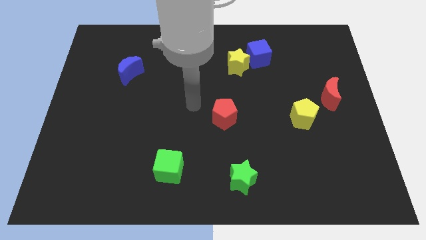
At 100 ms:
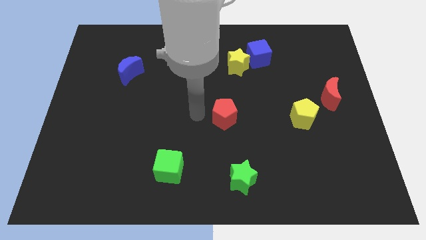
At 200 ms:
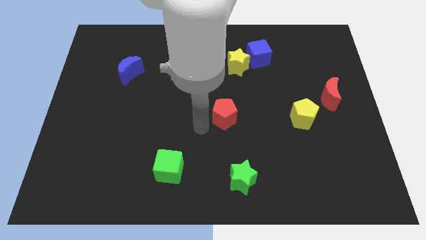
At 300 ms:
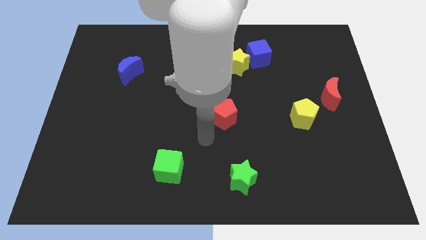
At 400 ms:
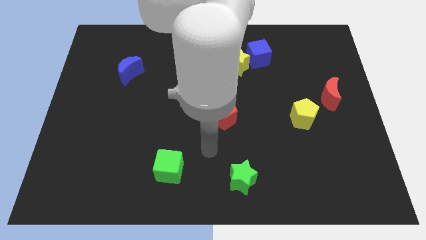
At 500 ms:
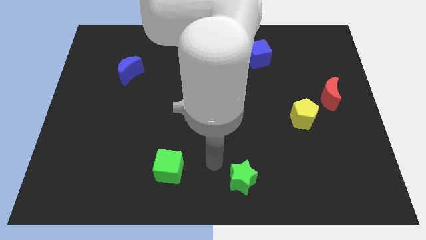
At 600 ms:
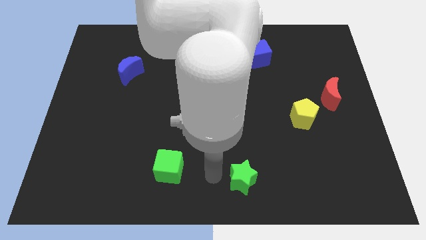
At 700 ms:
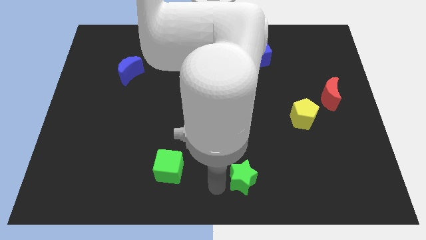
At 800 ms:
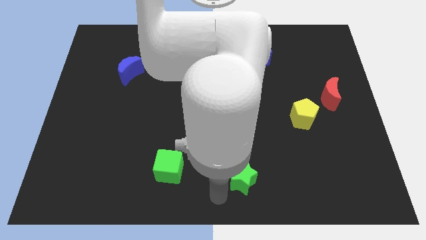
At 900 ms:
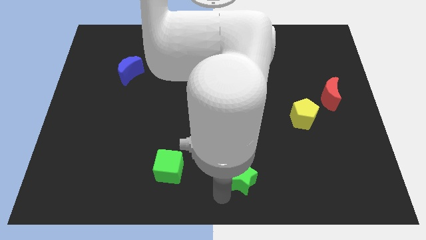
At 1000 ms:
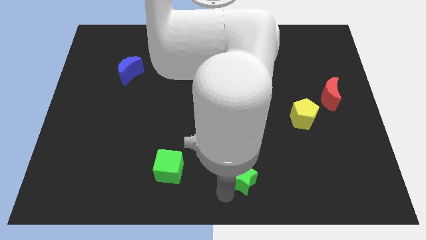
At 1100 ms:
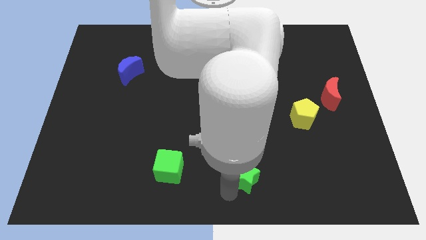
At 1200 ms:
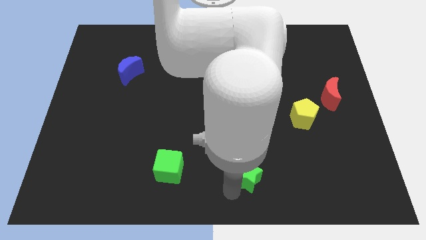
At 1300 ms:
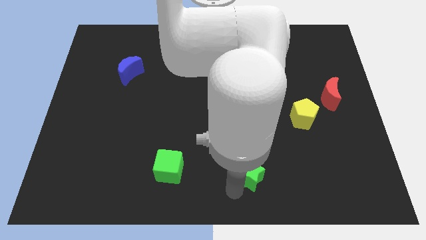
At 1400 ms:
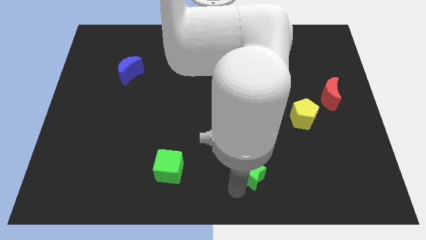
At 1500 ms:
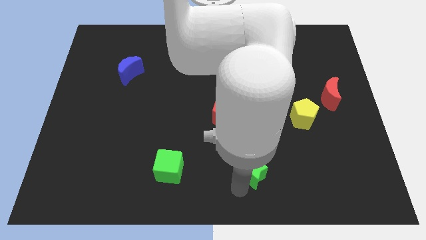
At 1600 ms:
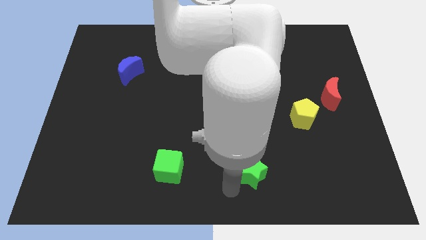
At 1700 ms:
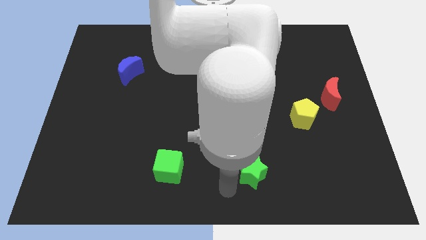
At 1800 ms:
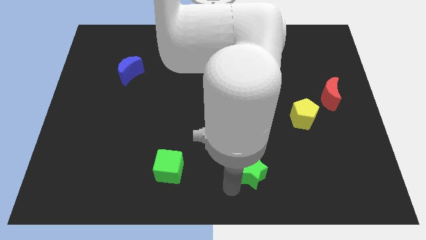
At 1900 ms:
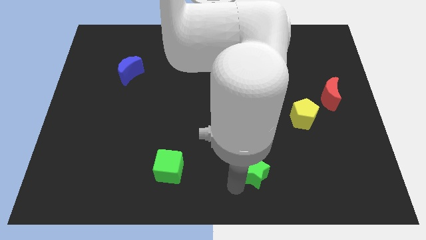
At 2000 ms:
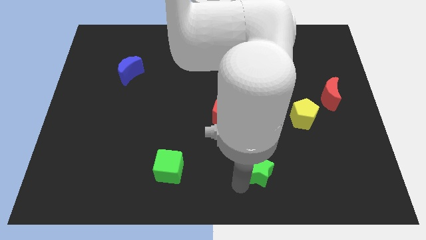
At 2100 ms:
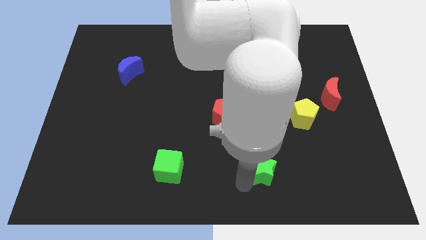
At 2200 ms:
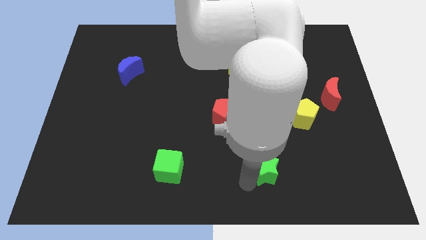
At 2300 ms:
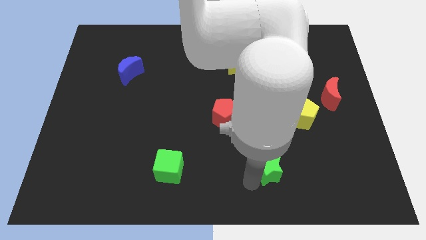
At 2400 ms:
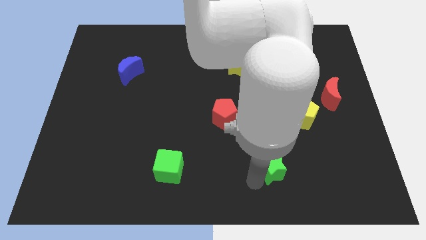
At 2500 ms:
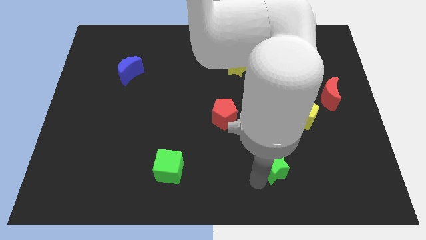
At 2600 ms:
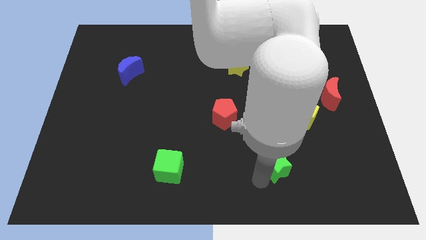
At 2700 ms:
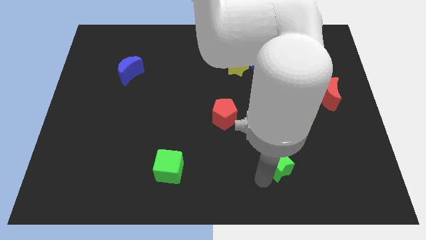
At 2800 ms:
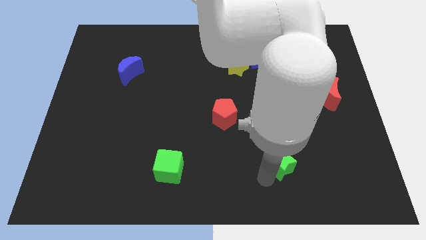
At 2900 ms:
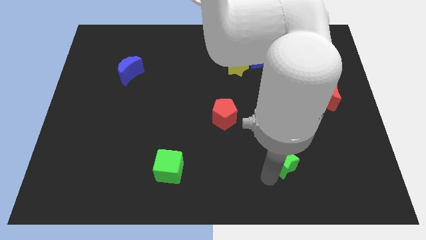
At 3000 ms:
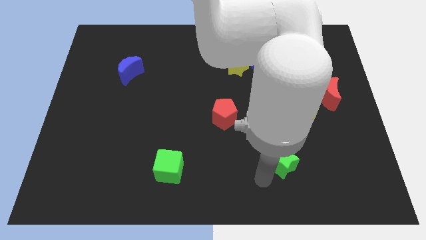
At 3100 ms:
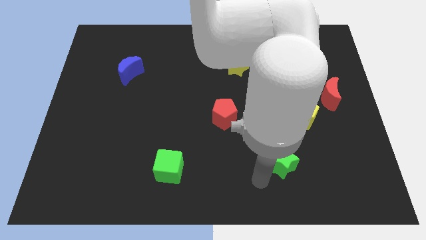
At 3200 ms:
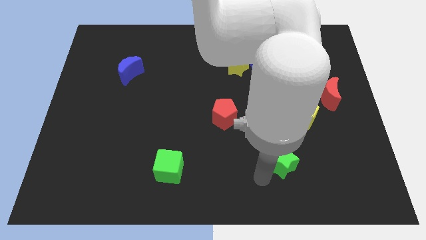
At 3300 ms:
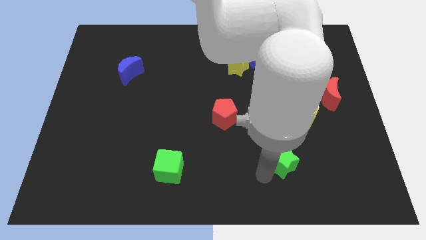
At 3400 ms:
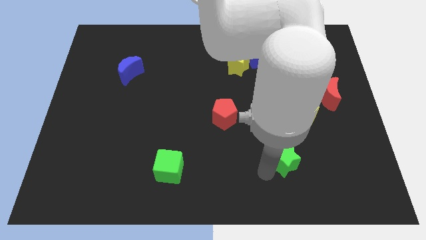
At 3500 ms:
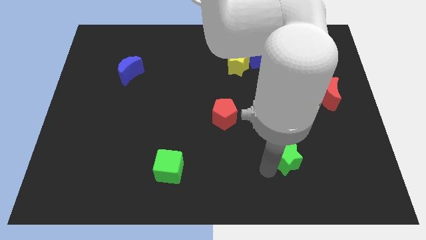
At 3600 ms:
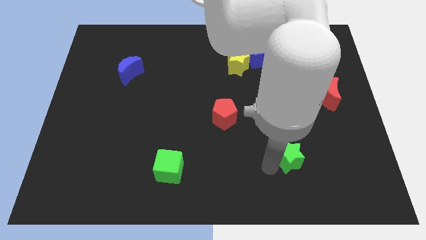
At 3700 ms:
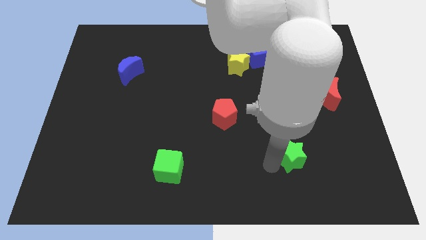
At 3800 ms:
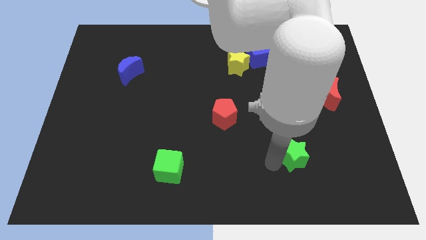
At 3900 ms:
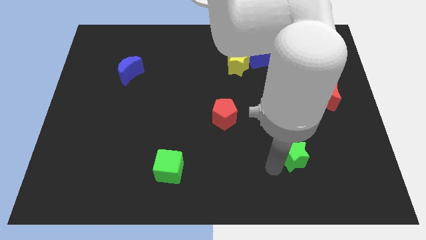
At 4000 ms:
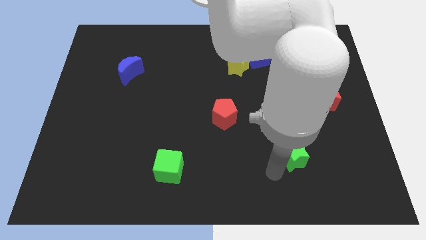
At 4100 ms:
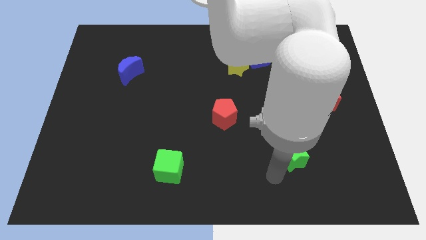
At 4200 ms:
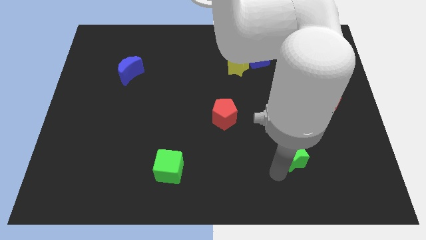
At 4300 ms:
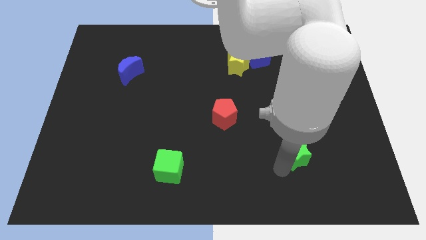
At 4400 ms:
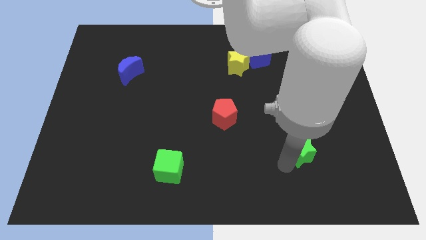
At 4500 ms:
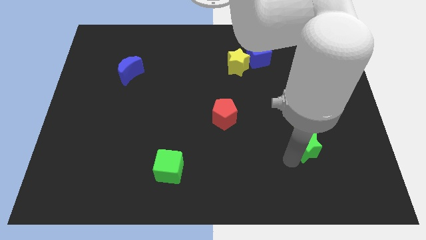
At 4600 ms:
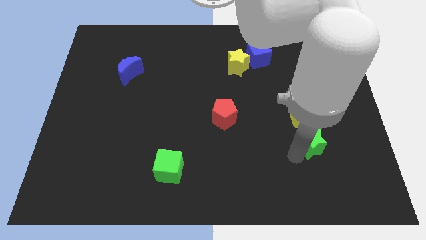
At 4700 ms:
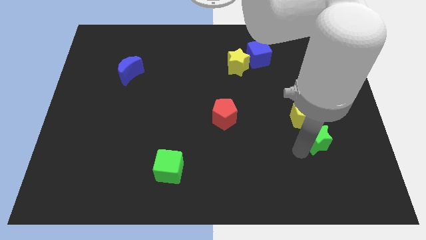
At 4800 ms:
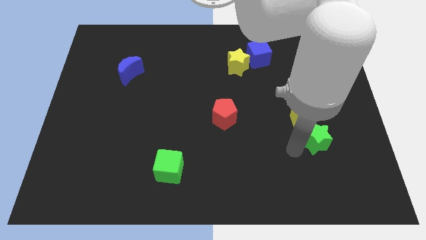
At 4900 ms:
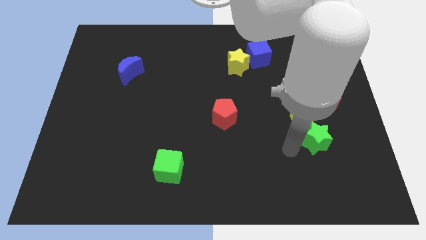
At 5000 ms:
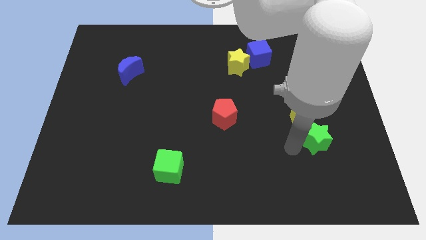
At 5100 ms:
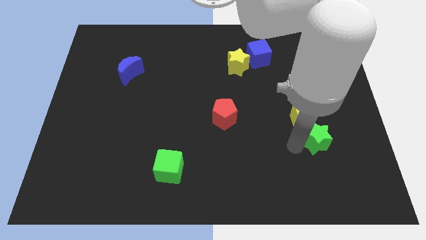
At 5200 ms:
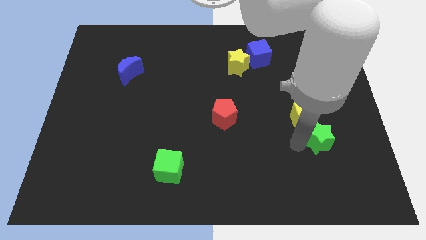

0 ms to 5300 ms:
slide the green star to the bottom of the red moon

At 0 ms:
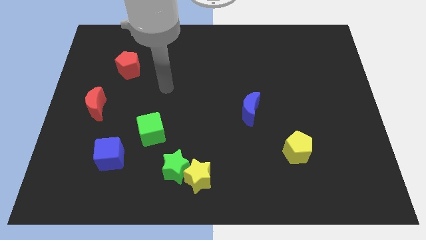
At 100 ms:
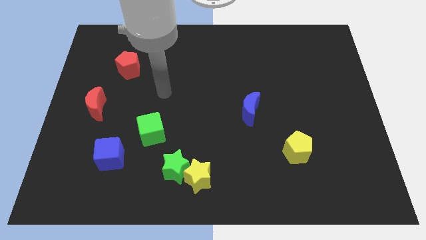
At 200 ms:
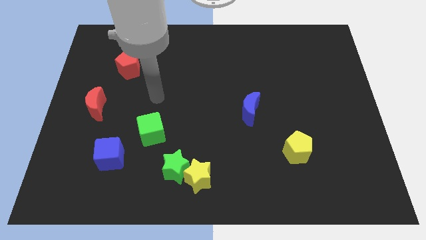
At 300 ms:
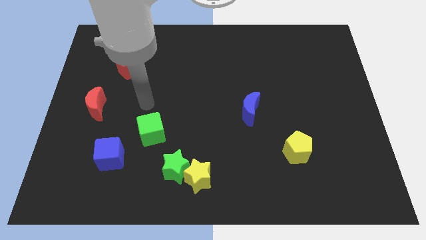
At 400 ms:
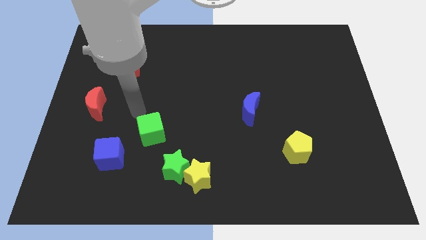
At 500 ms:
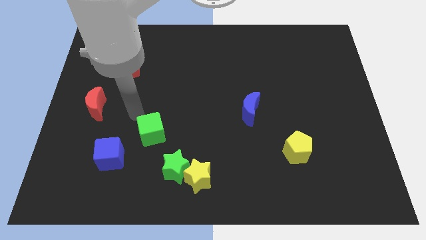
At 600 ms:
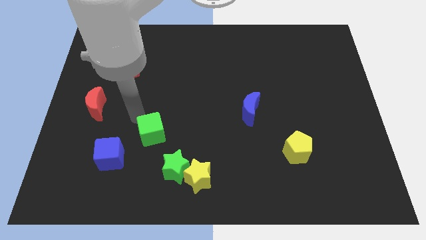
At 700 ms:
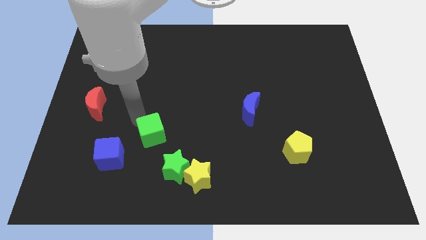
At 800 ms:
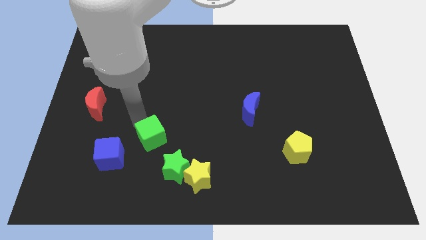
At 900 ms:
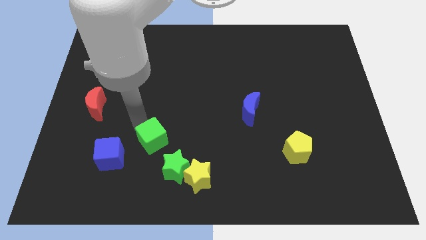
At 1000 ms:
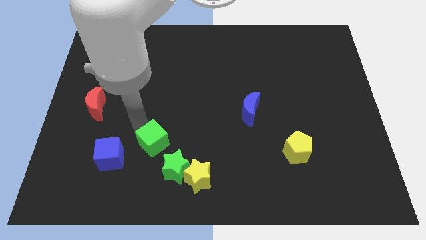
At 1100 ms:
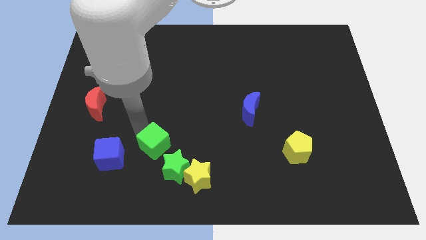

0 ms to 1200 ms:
put the green cube to the top left of the yellow star

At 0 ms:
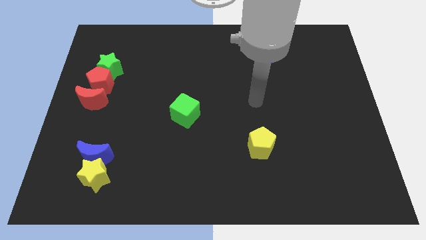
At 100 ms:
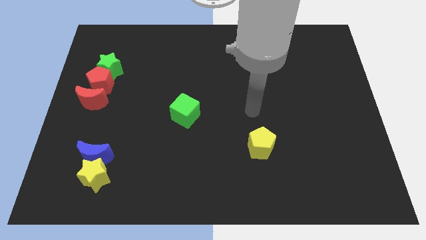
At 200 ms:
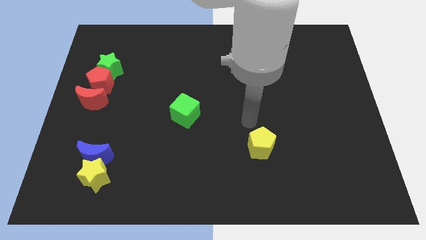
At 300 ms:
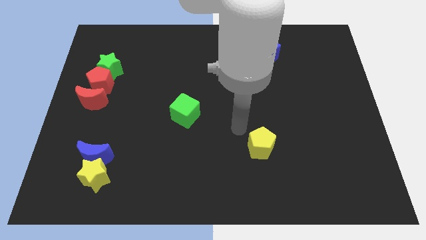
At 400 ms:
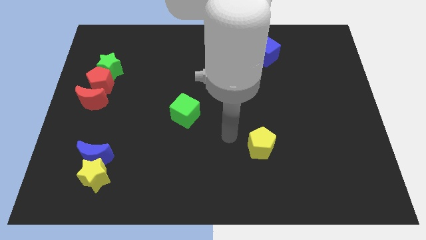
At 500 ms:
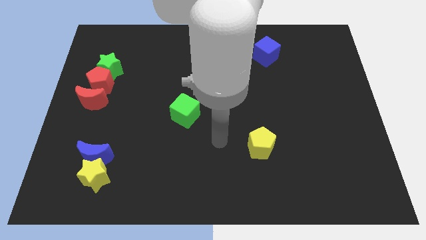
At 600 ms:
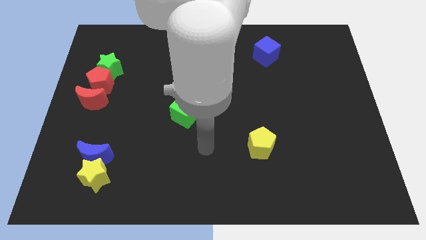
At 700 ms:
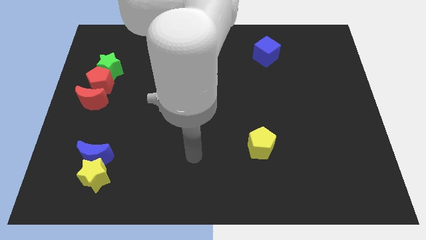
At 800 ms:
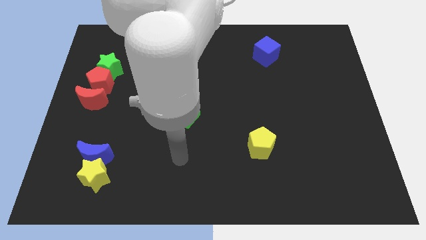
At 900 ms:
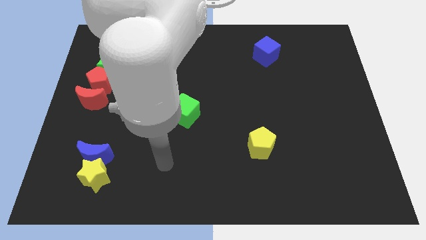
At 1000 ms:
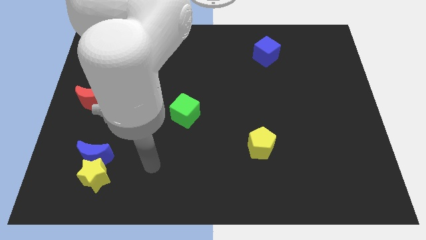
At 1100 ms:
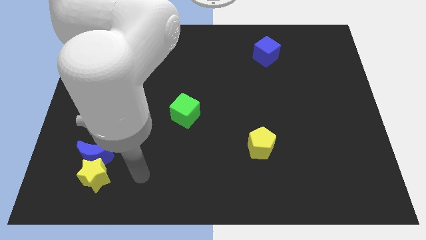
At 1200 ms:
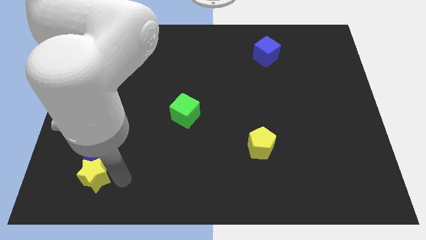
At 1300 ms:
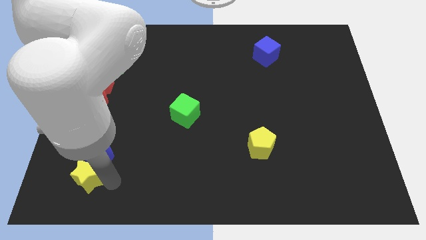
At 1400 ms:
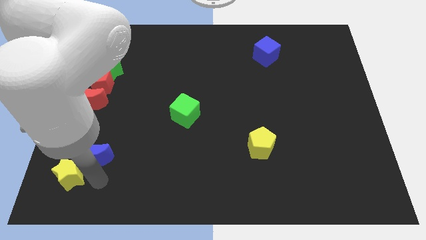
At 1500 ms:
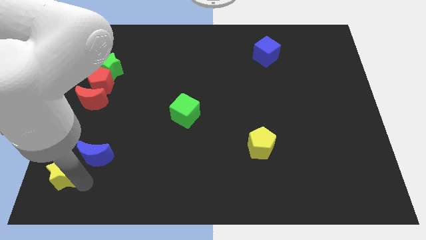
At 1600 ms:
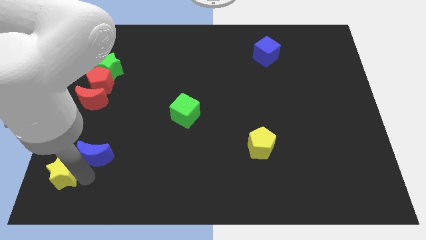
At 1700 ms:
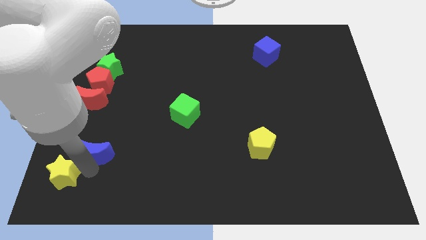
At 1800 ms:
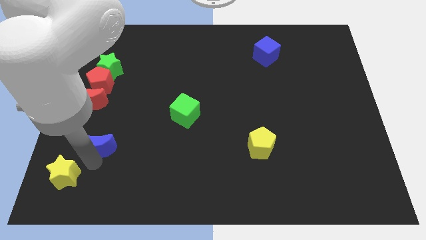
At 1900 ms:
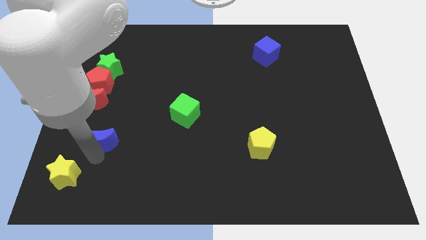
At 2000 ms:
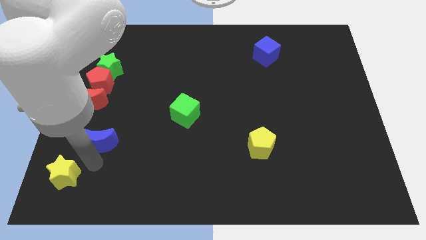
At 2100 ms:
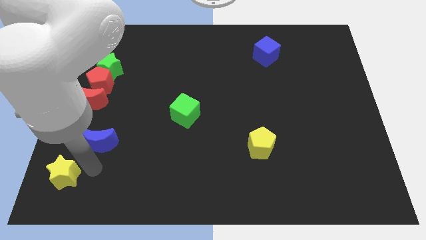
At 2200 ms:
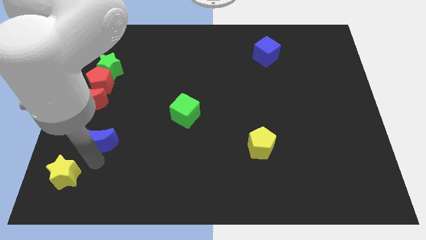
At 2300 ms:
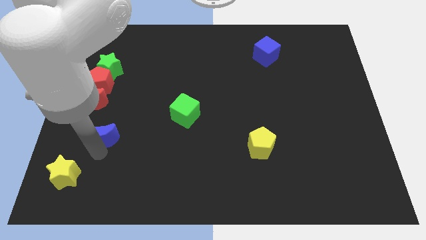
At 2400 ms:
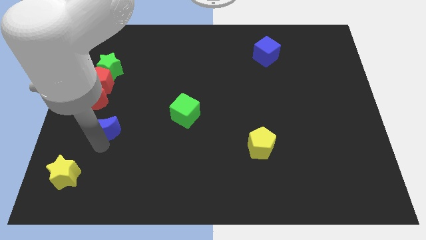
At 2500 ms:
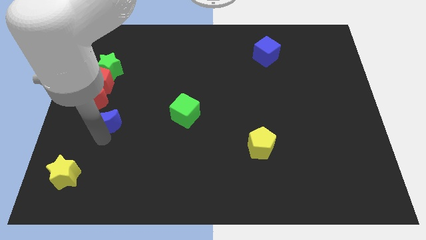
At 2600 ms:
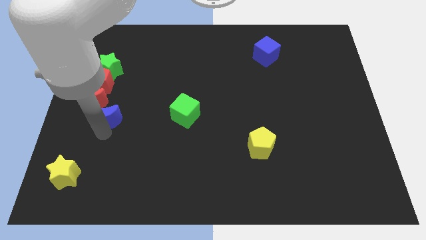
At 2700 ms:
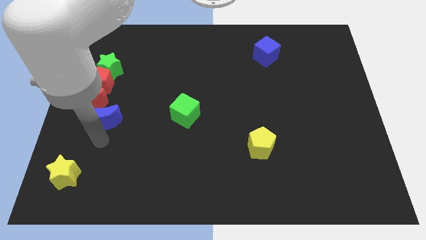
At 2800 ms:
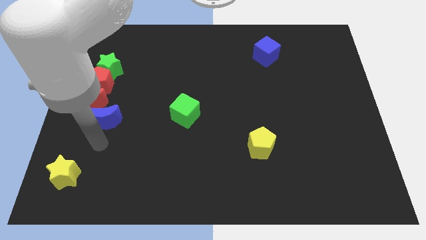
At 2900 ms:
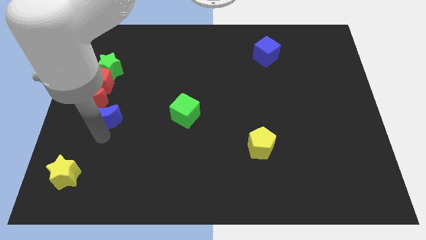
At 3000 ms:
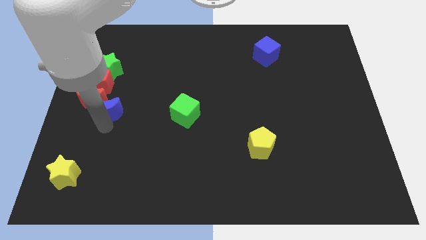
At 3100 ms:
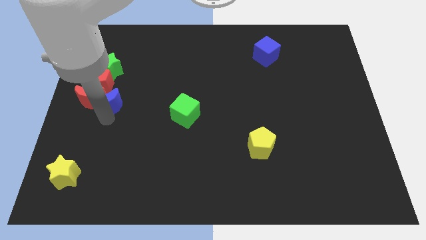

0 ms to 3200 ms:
move the blue moon to the top right of the red moon
